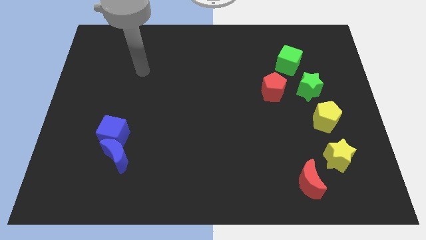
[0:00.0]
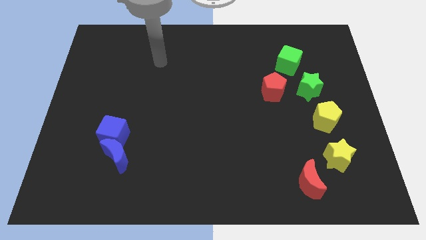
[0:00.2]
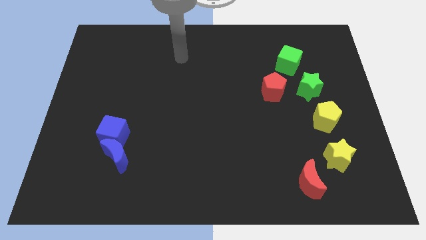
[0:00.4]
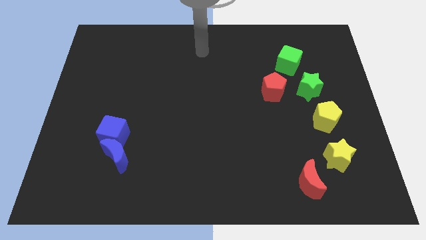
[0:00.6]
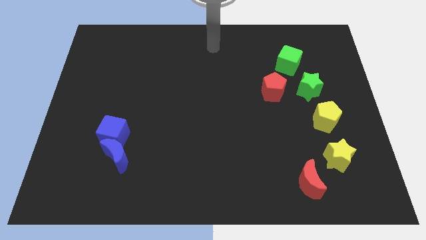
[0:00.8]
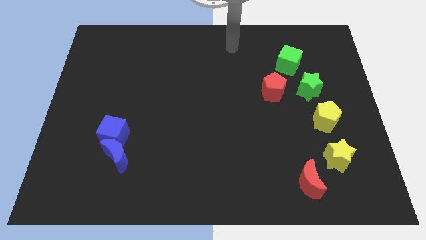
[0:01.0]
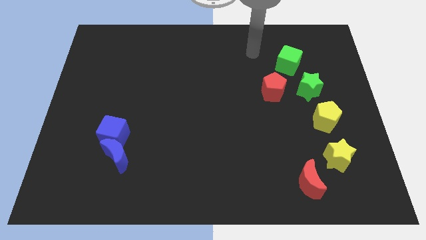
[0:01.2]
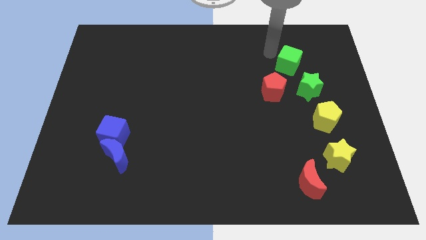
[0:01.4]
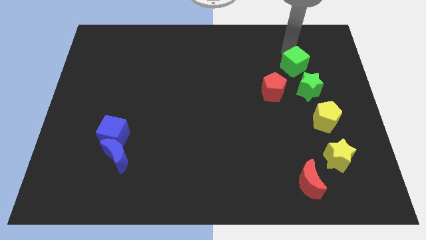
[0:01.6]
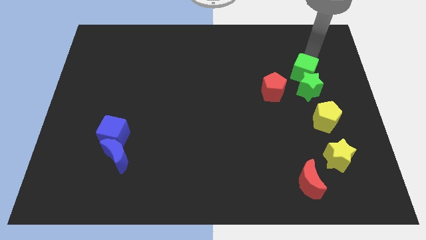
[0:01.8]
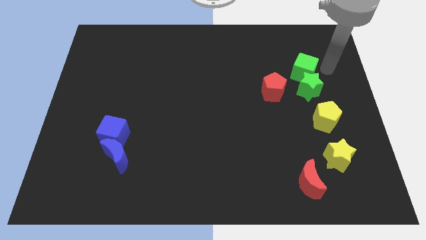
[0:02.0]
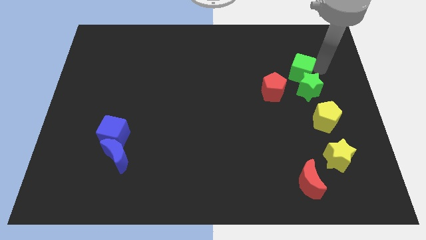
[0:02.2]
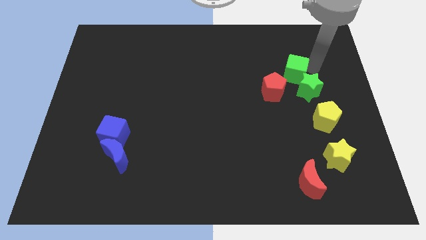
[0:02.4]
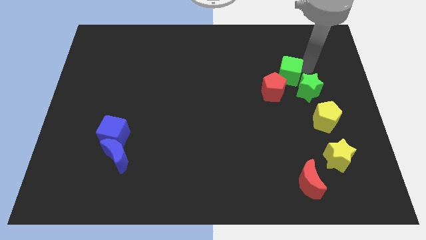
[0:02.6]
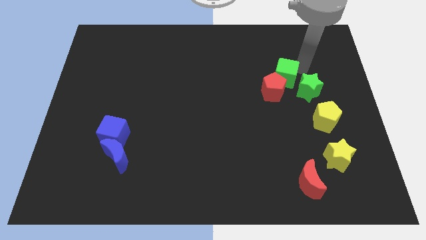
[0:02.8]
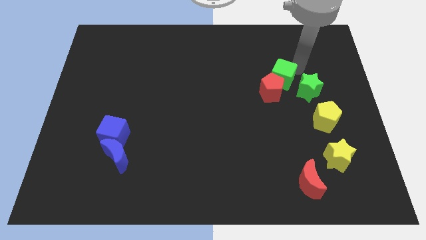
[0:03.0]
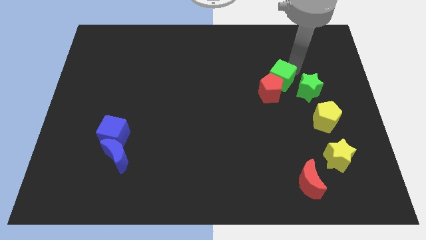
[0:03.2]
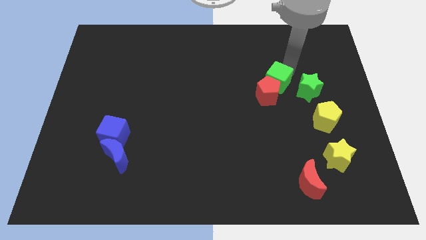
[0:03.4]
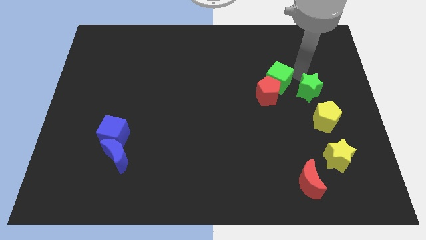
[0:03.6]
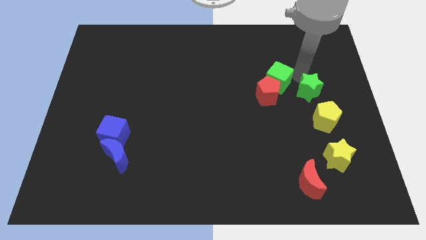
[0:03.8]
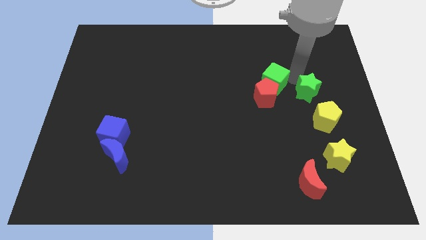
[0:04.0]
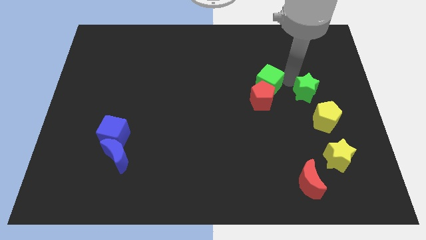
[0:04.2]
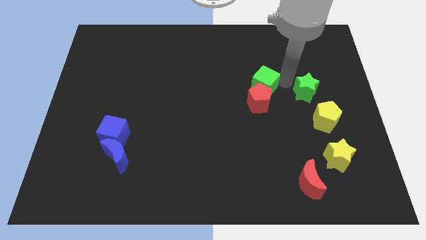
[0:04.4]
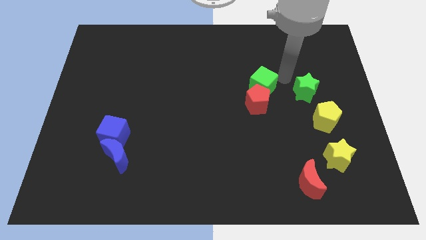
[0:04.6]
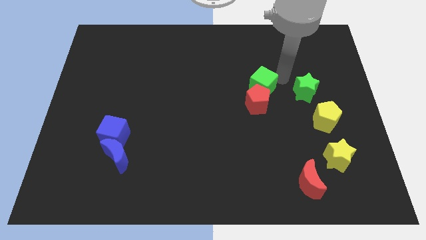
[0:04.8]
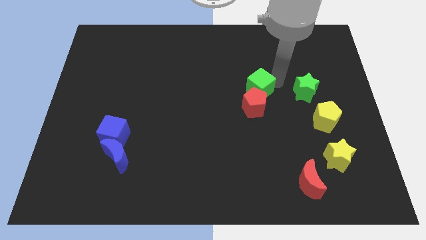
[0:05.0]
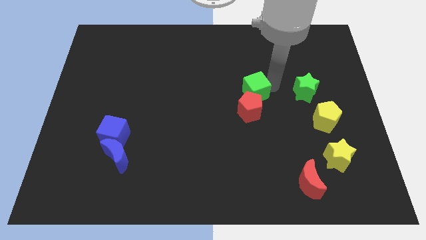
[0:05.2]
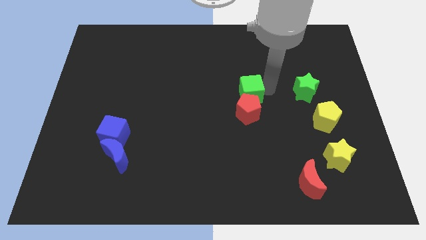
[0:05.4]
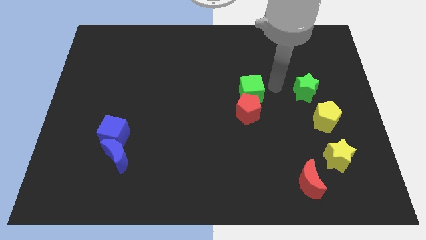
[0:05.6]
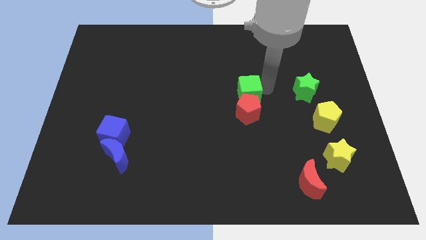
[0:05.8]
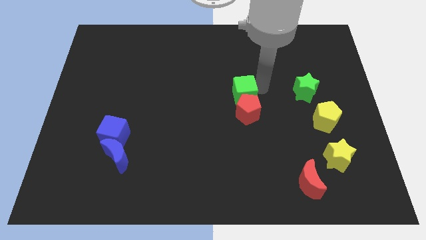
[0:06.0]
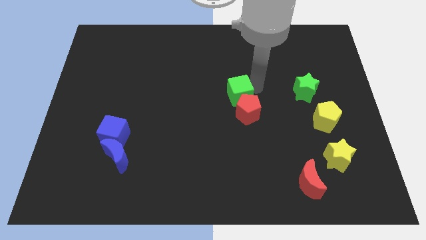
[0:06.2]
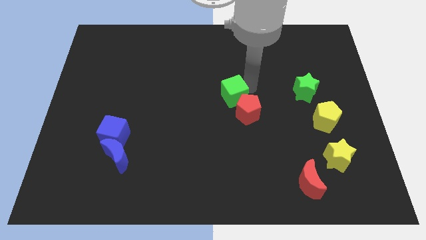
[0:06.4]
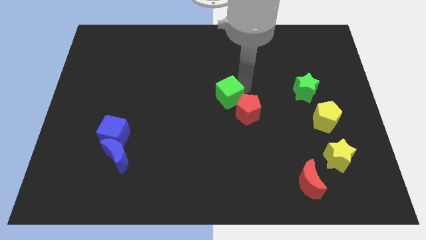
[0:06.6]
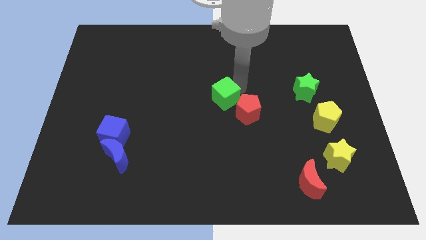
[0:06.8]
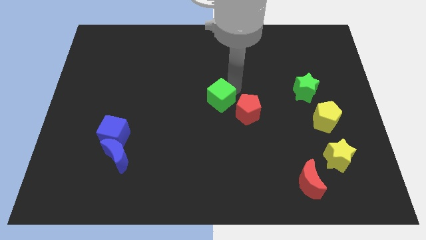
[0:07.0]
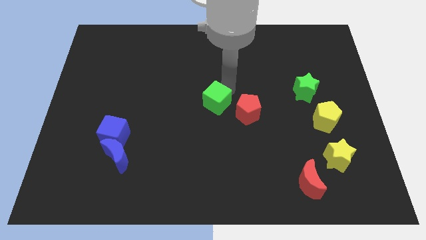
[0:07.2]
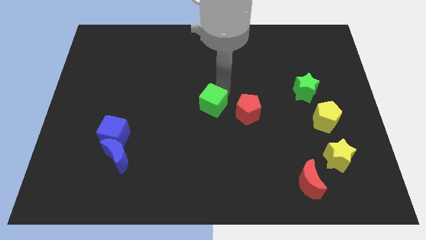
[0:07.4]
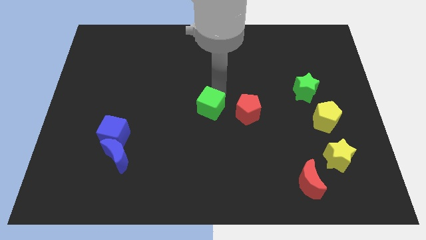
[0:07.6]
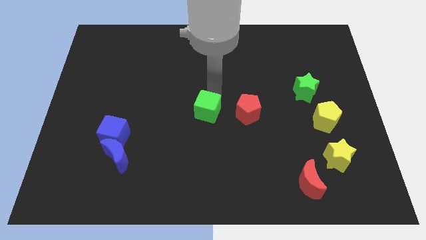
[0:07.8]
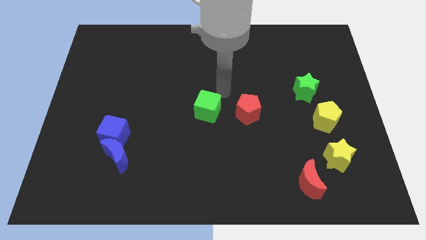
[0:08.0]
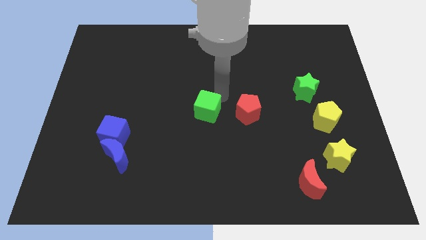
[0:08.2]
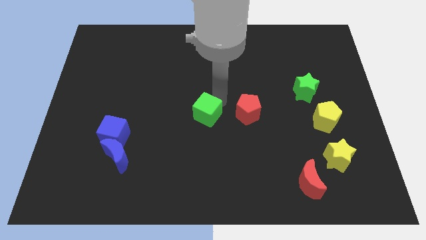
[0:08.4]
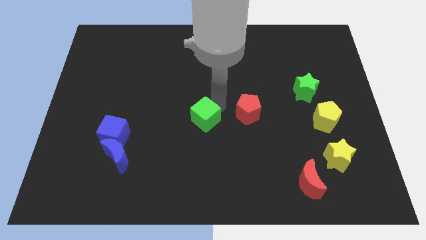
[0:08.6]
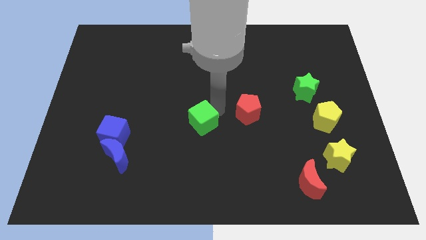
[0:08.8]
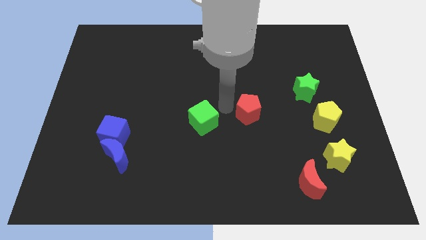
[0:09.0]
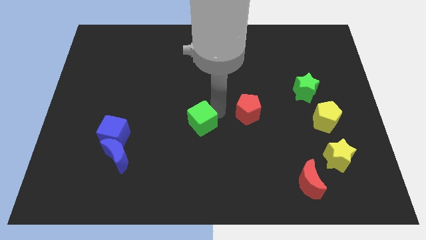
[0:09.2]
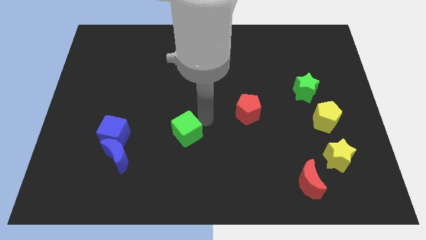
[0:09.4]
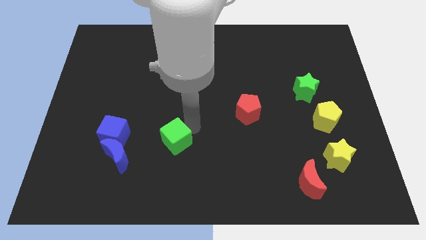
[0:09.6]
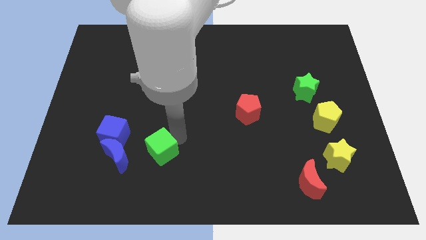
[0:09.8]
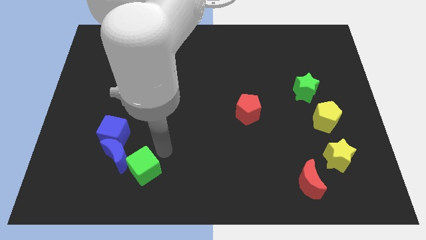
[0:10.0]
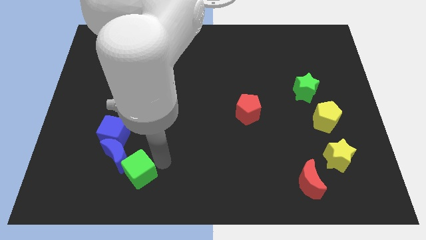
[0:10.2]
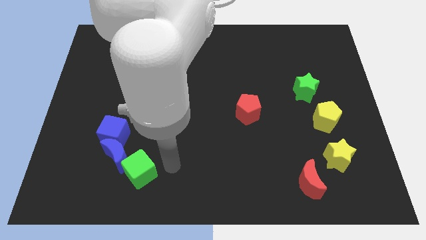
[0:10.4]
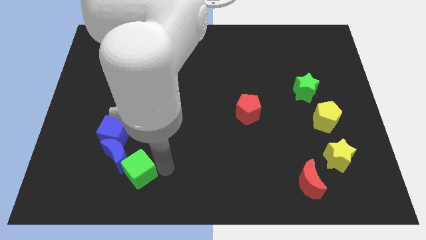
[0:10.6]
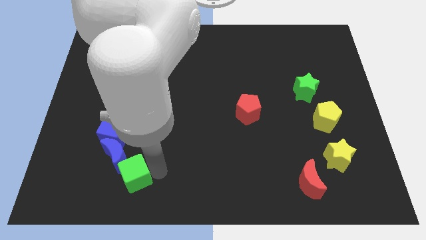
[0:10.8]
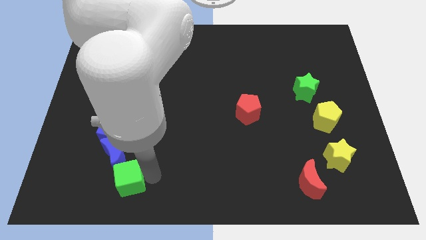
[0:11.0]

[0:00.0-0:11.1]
move the green cube to the bottom of the blue cube

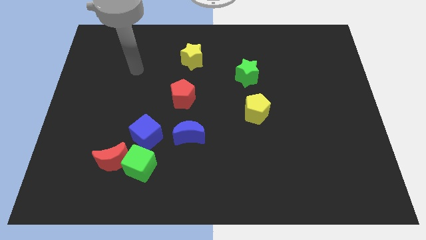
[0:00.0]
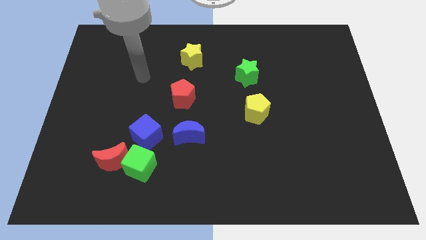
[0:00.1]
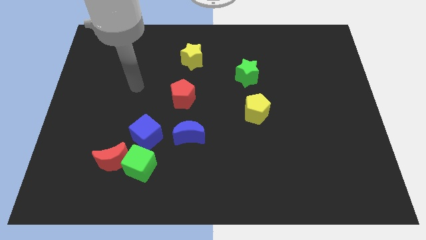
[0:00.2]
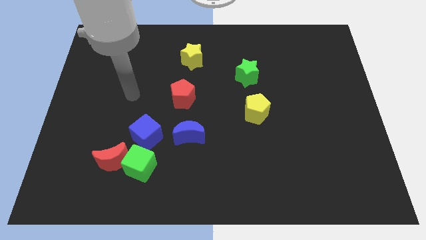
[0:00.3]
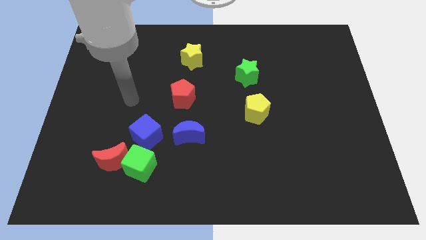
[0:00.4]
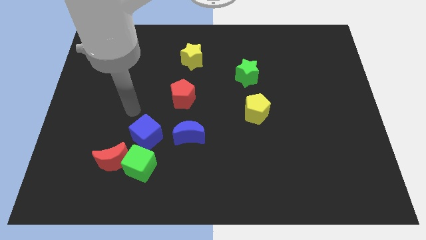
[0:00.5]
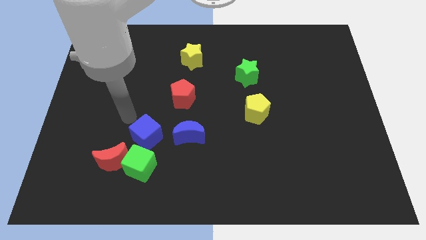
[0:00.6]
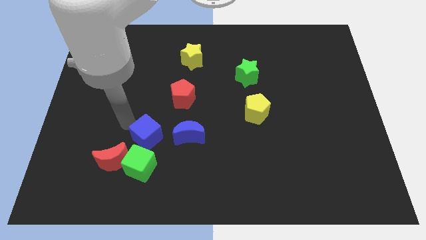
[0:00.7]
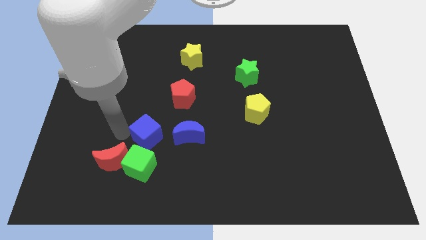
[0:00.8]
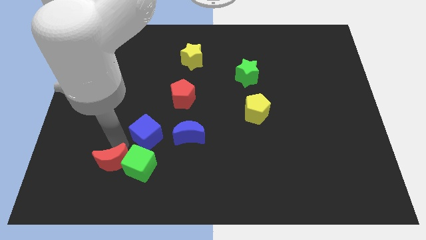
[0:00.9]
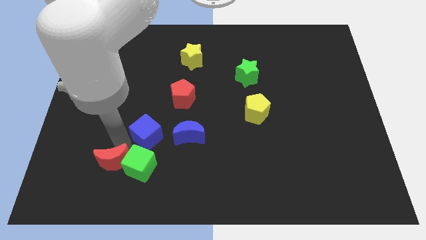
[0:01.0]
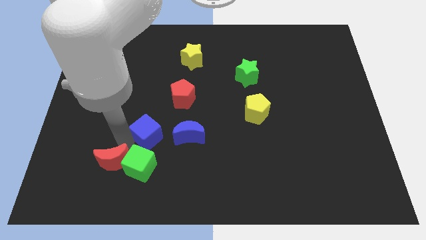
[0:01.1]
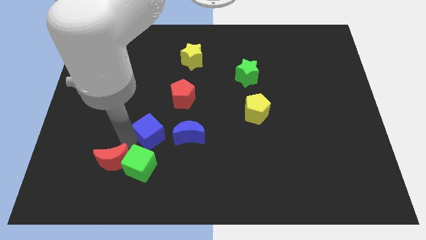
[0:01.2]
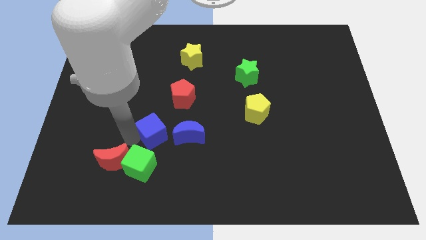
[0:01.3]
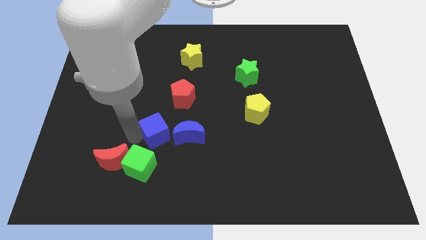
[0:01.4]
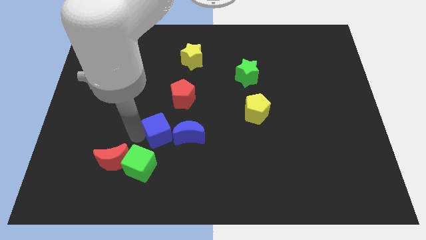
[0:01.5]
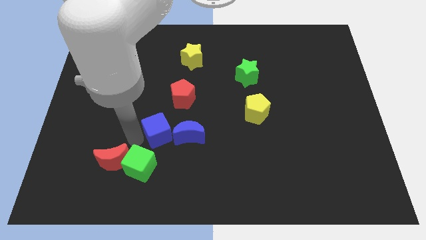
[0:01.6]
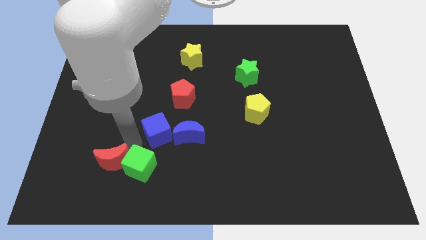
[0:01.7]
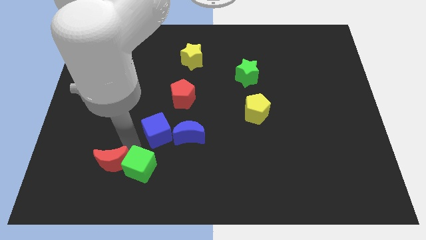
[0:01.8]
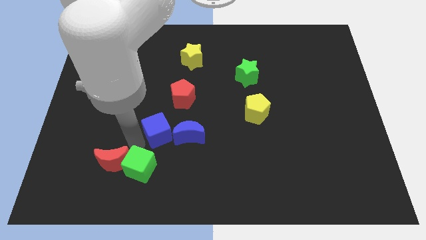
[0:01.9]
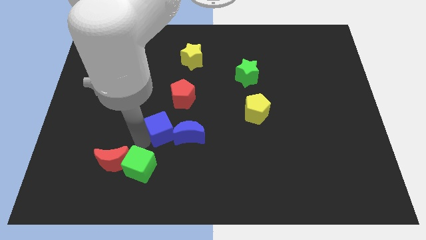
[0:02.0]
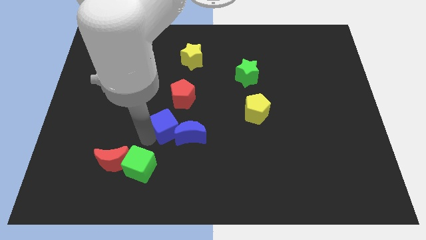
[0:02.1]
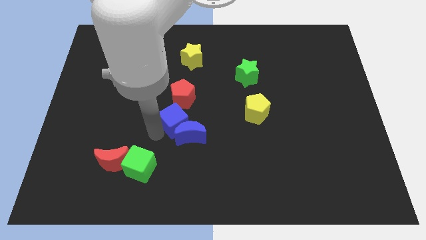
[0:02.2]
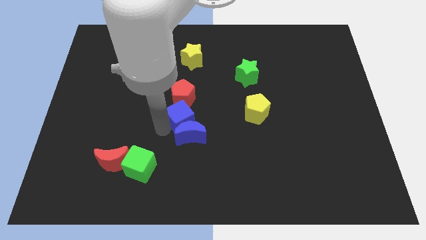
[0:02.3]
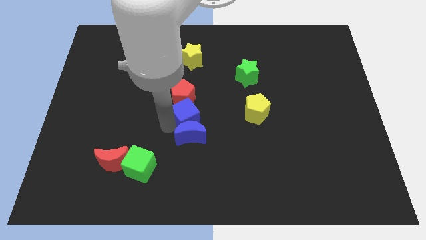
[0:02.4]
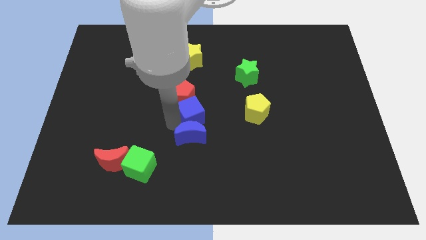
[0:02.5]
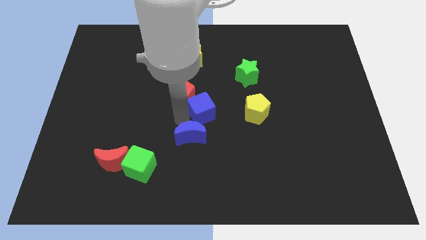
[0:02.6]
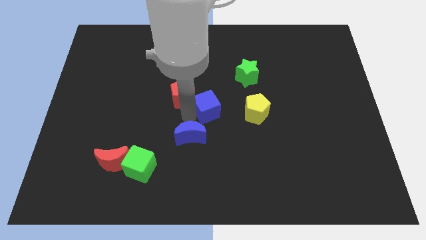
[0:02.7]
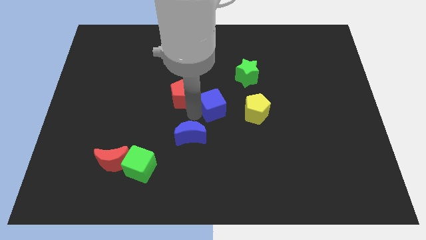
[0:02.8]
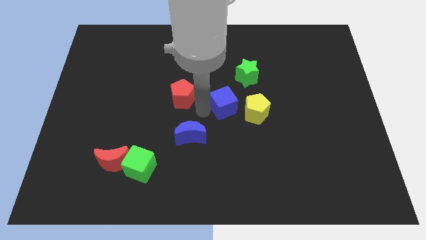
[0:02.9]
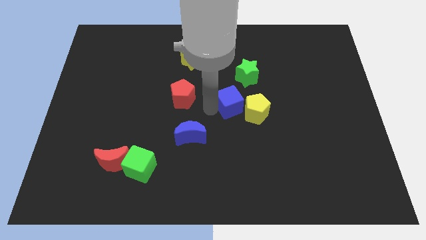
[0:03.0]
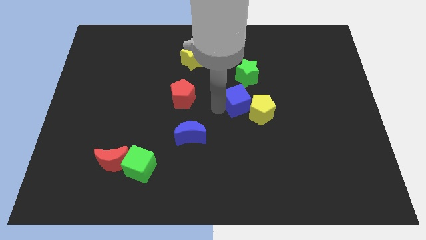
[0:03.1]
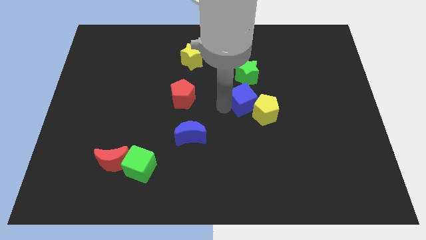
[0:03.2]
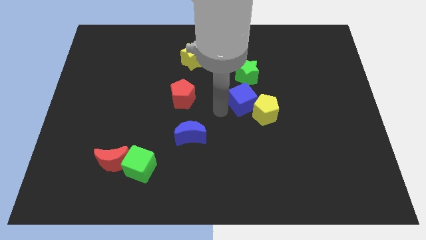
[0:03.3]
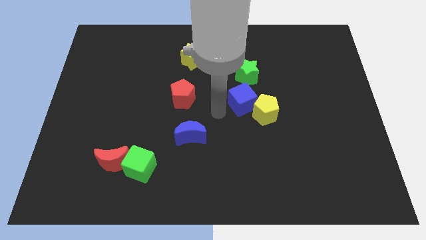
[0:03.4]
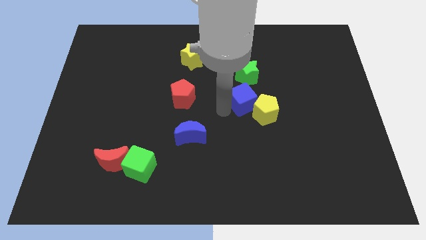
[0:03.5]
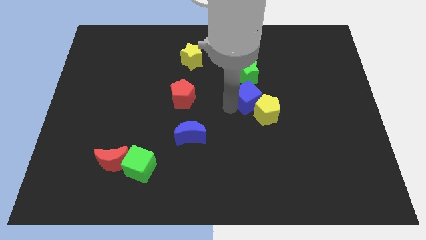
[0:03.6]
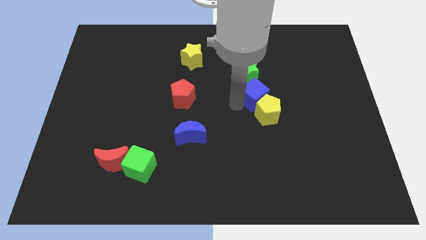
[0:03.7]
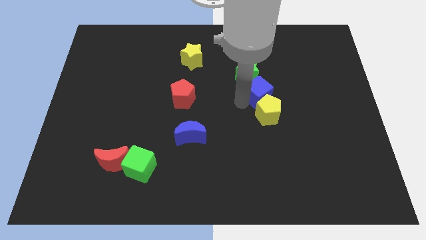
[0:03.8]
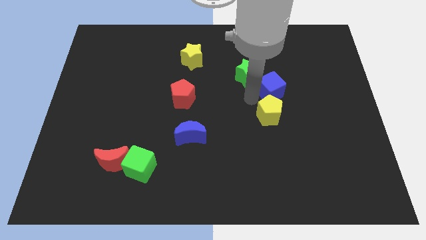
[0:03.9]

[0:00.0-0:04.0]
push the blue cube right of the green star
